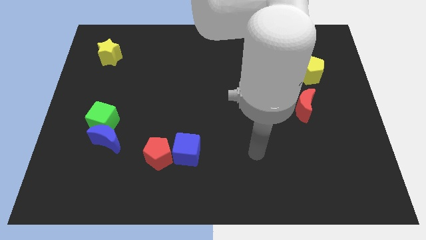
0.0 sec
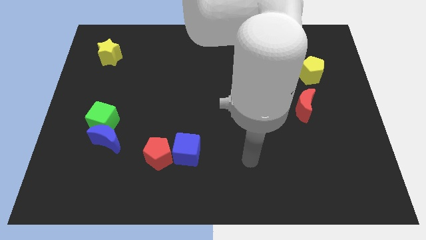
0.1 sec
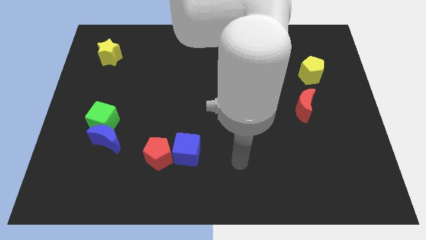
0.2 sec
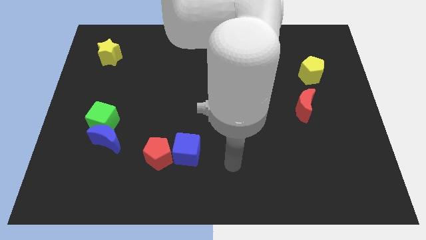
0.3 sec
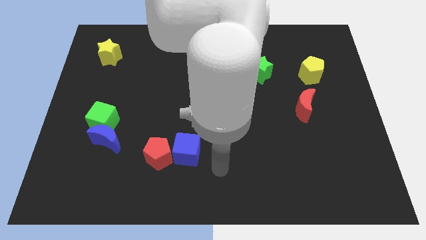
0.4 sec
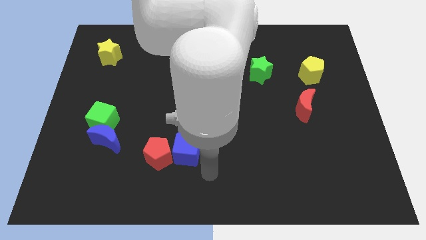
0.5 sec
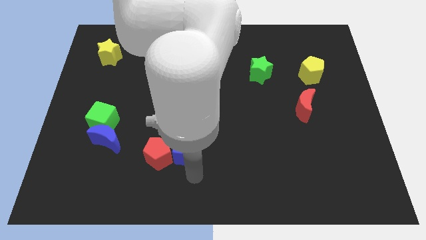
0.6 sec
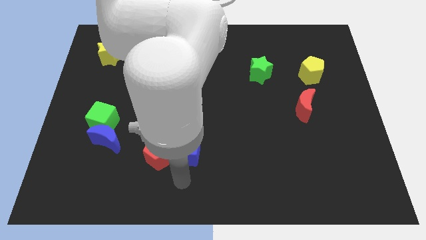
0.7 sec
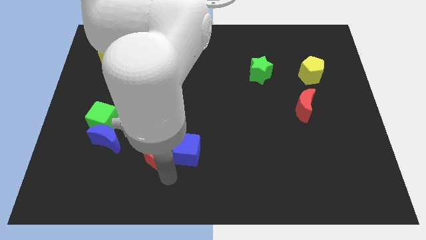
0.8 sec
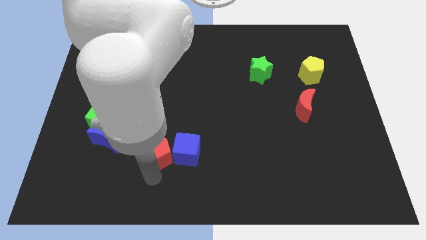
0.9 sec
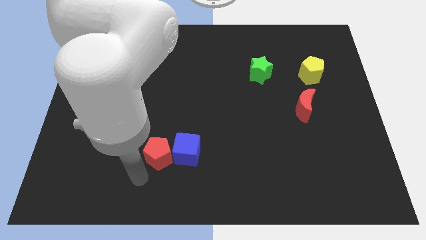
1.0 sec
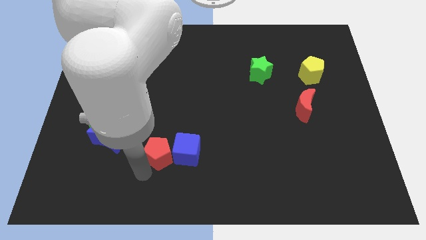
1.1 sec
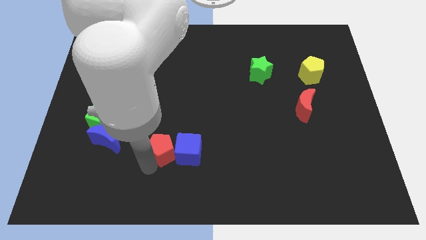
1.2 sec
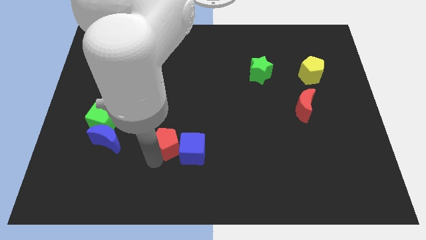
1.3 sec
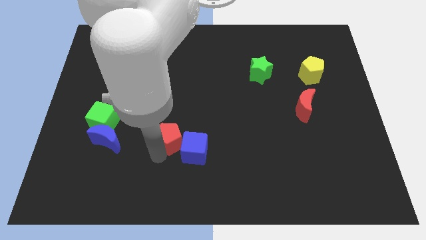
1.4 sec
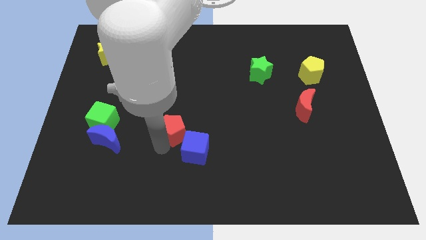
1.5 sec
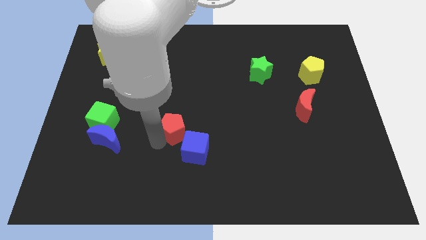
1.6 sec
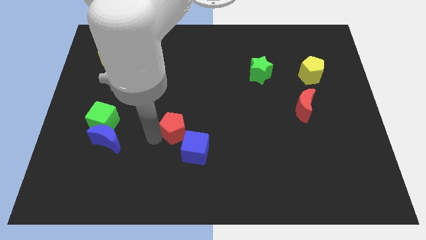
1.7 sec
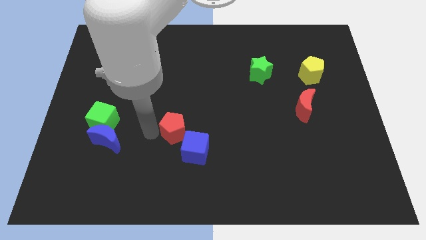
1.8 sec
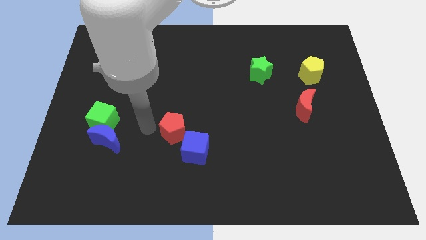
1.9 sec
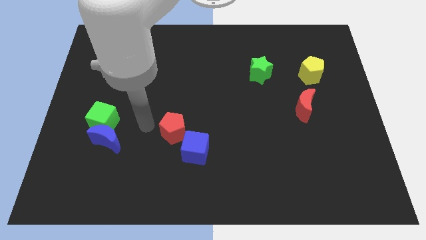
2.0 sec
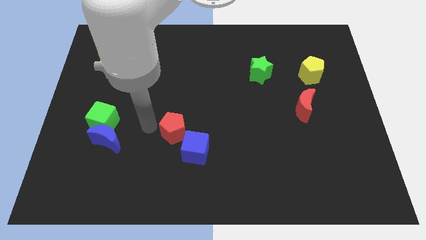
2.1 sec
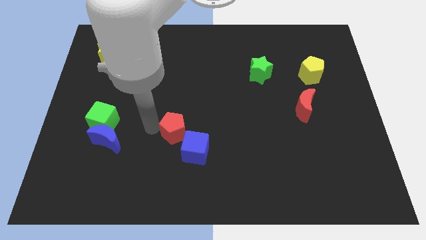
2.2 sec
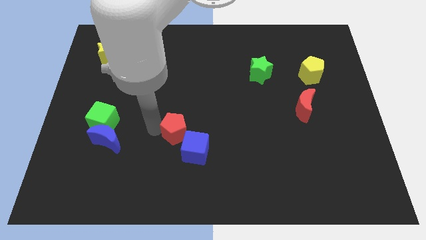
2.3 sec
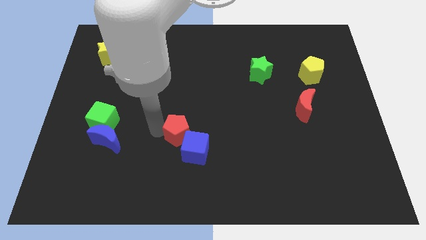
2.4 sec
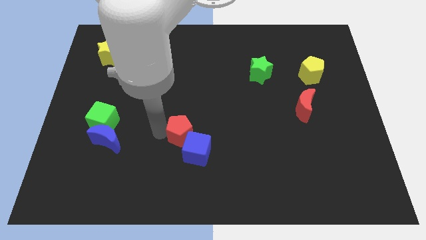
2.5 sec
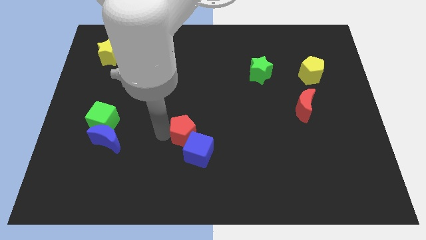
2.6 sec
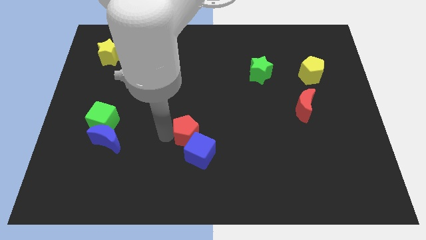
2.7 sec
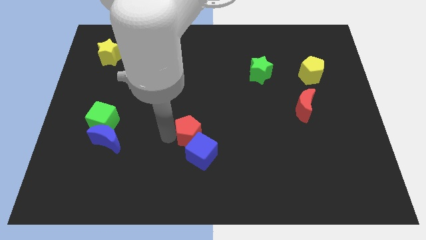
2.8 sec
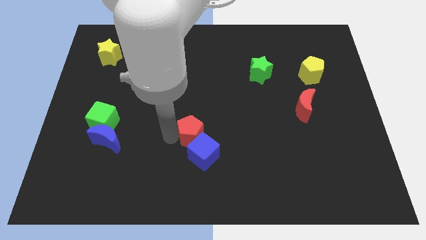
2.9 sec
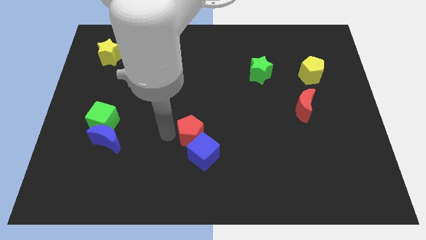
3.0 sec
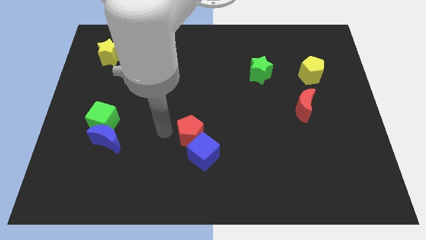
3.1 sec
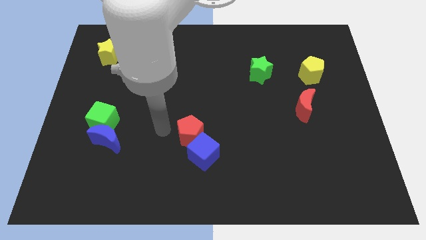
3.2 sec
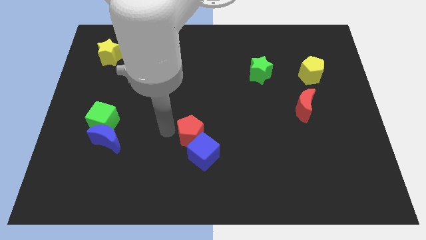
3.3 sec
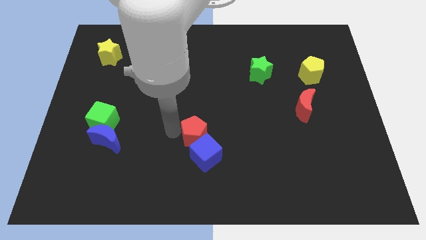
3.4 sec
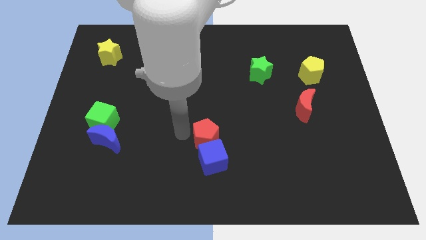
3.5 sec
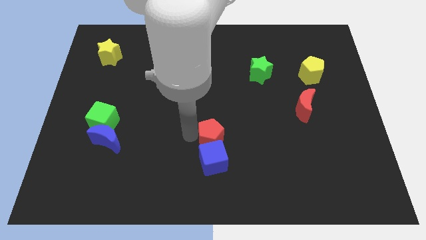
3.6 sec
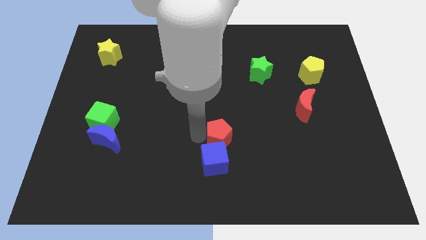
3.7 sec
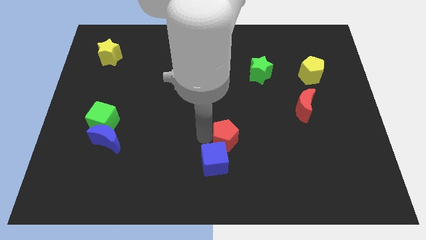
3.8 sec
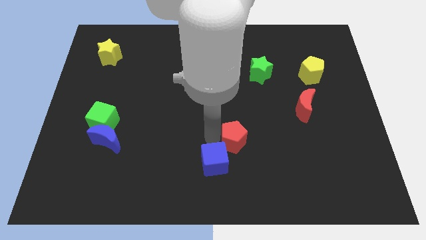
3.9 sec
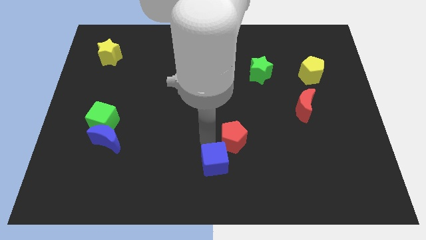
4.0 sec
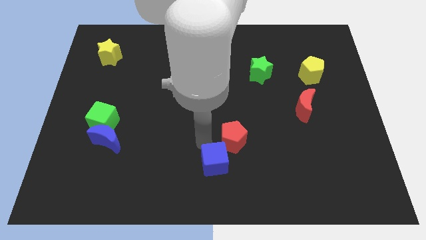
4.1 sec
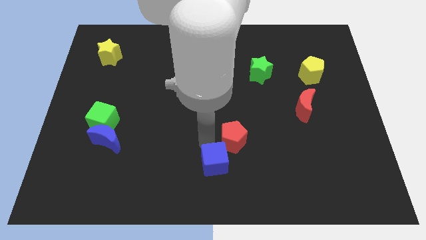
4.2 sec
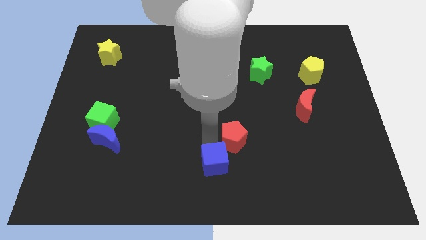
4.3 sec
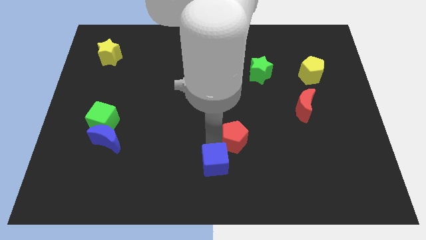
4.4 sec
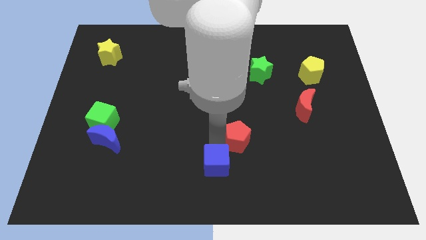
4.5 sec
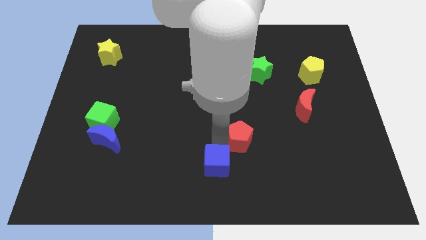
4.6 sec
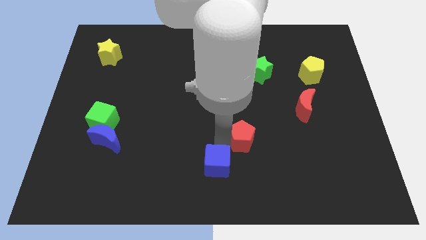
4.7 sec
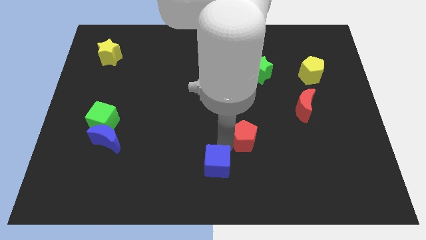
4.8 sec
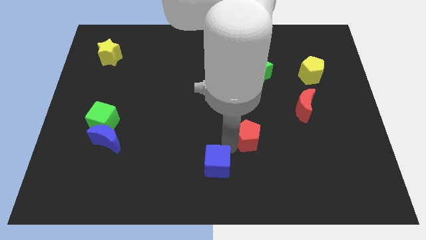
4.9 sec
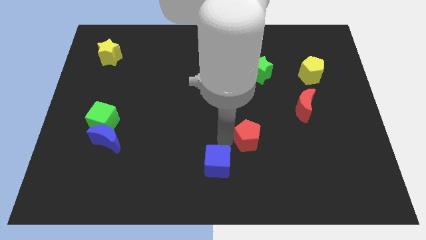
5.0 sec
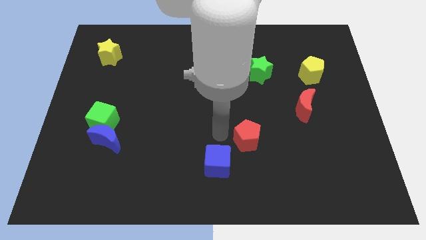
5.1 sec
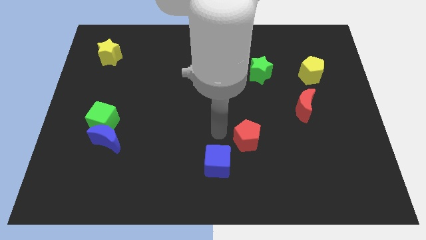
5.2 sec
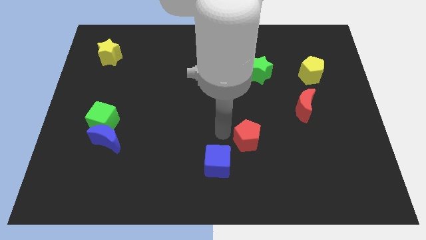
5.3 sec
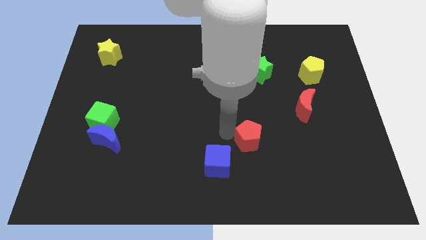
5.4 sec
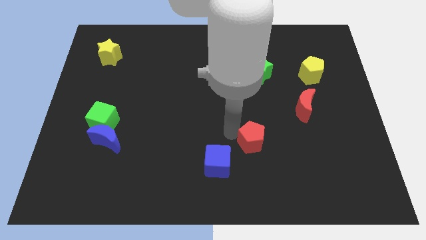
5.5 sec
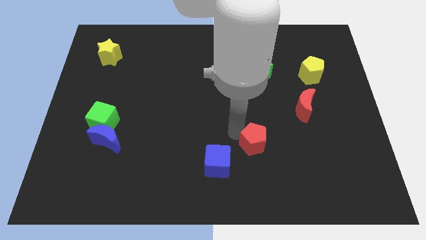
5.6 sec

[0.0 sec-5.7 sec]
push the red pentagon right

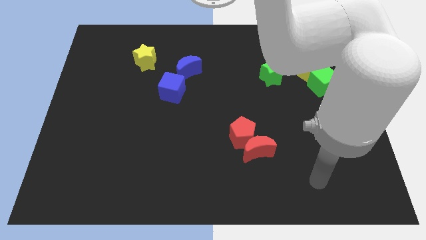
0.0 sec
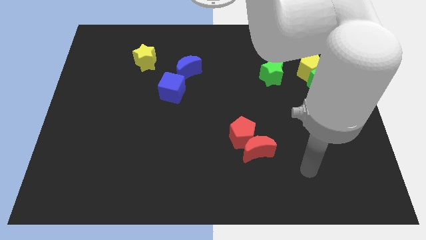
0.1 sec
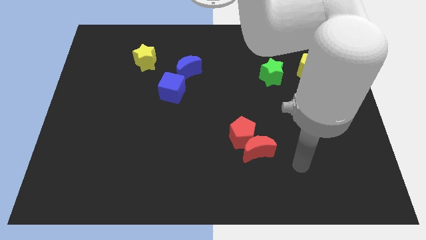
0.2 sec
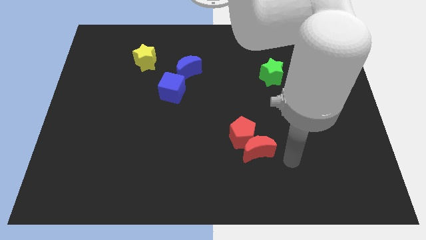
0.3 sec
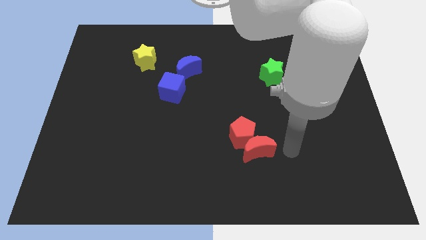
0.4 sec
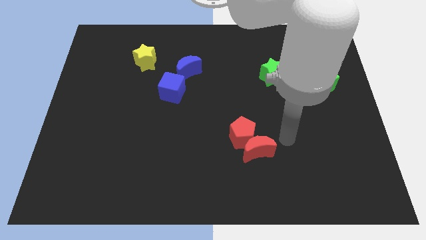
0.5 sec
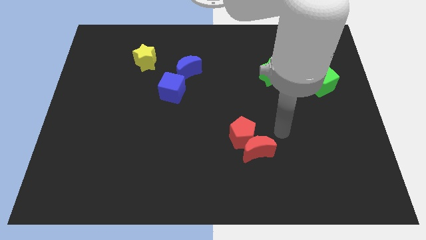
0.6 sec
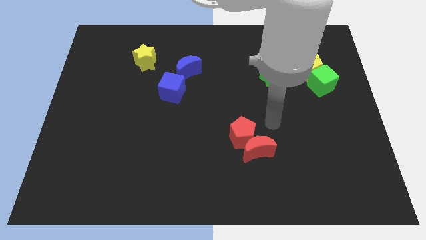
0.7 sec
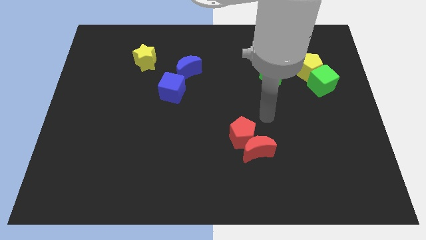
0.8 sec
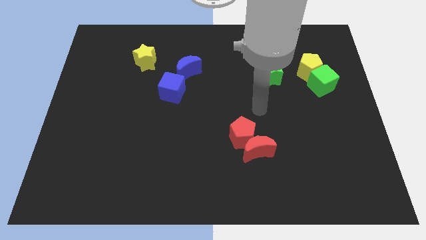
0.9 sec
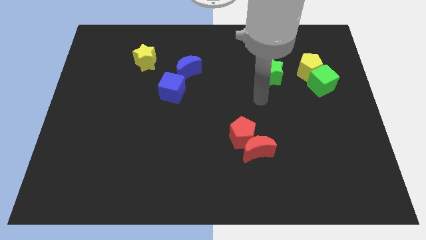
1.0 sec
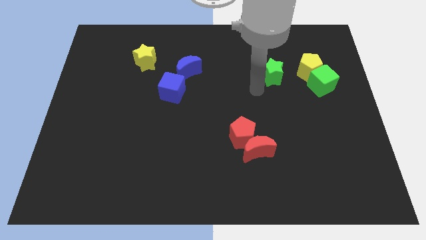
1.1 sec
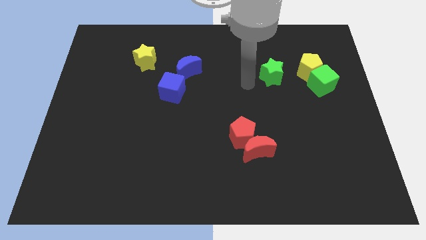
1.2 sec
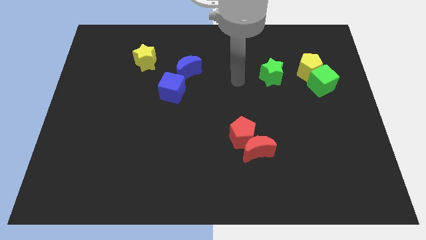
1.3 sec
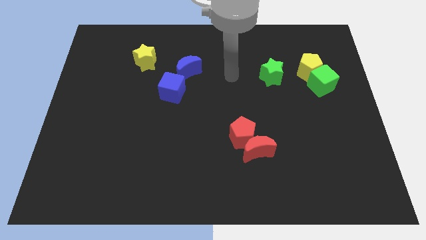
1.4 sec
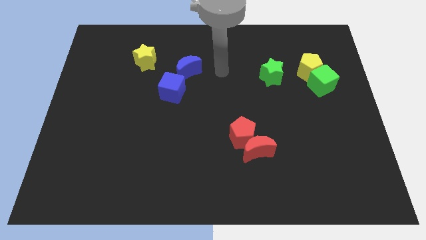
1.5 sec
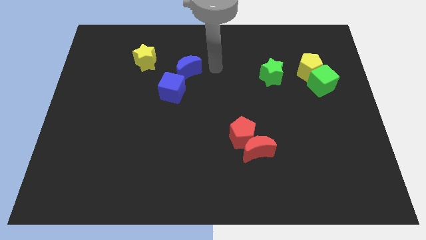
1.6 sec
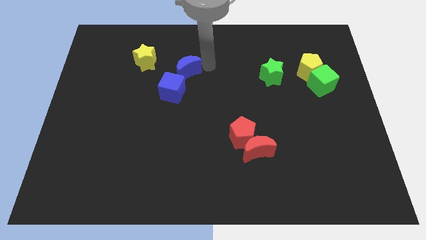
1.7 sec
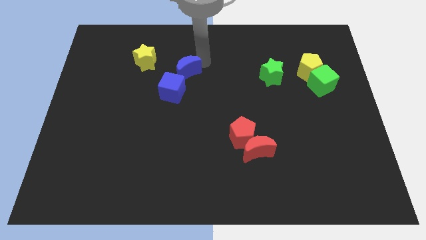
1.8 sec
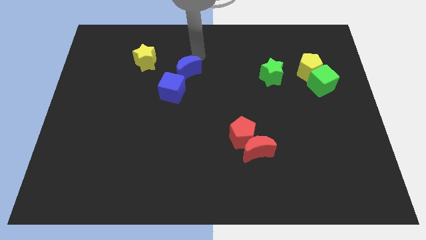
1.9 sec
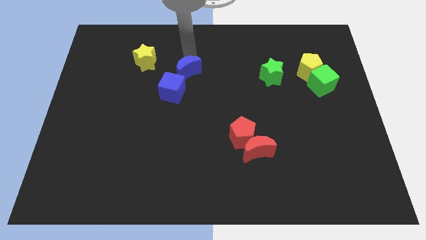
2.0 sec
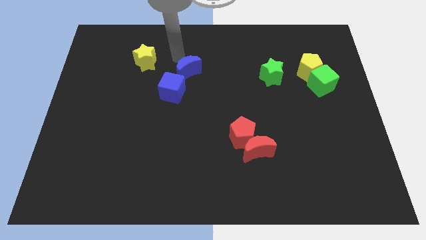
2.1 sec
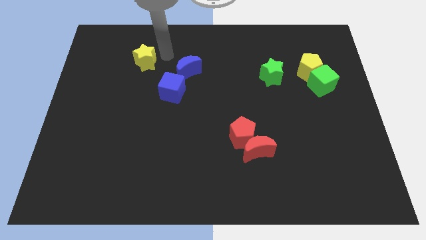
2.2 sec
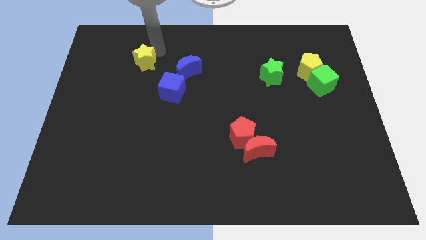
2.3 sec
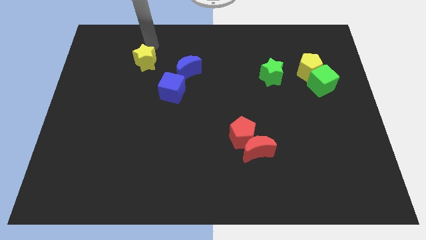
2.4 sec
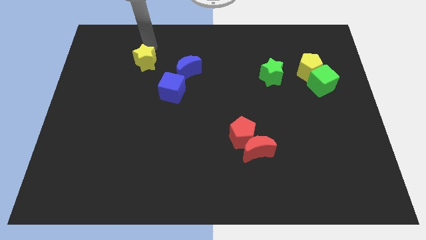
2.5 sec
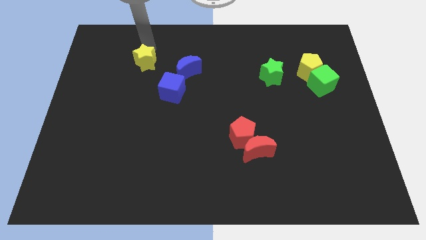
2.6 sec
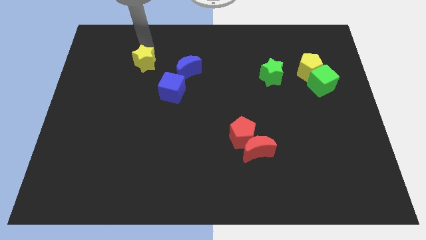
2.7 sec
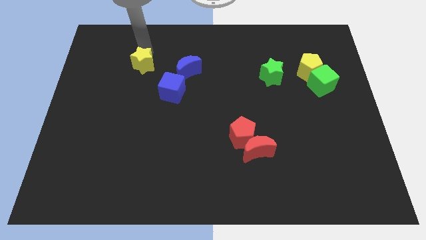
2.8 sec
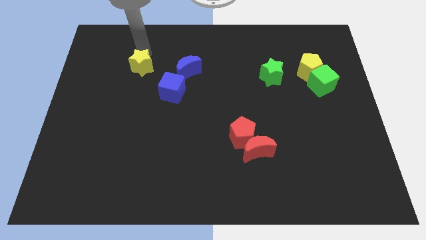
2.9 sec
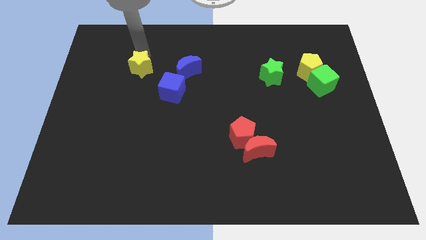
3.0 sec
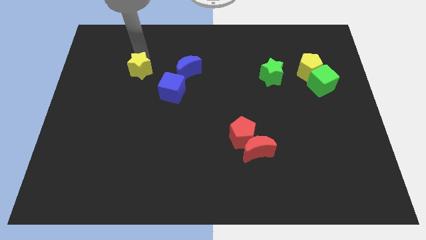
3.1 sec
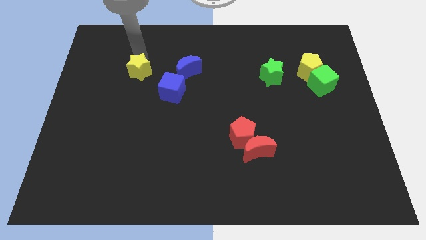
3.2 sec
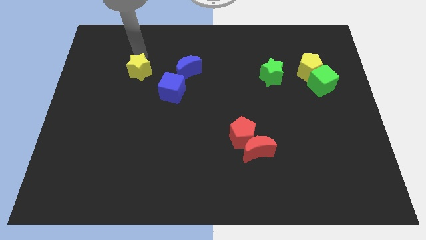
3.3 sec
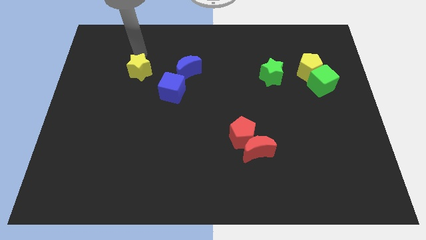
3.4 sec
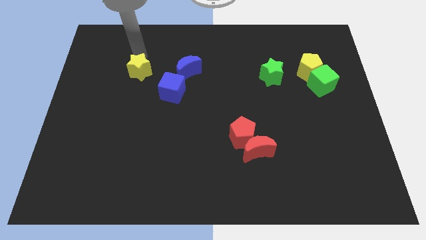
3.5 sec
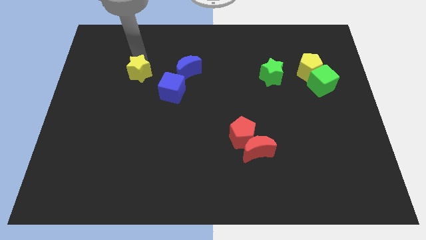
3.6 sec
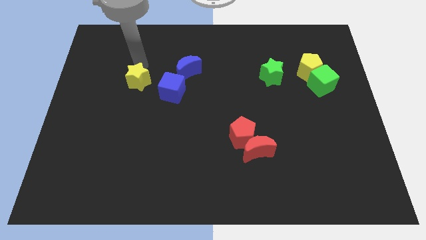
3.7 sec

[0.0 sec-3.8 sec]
move the yellow star a little downwards
